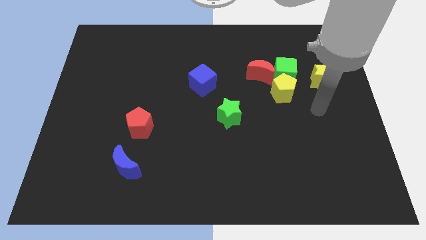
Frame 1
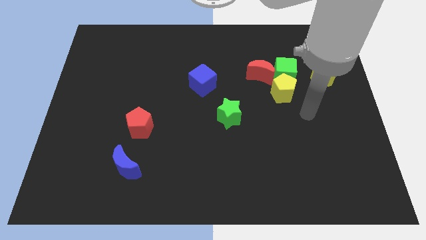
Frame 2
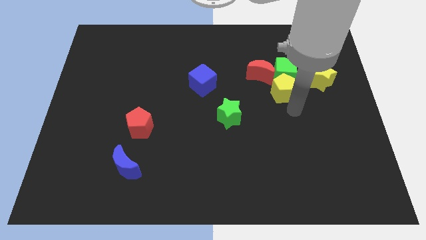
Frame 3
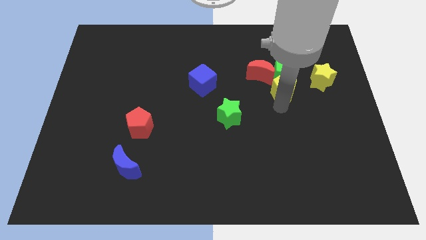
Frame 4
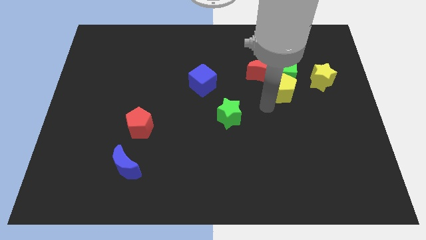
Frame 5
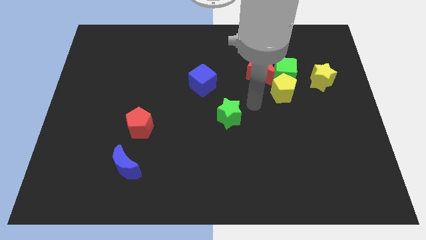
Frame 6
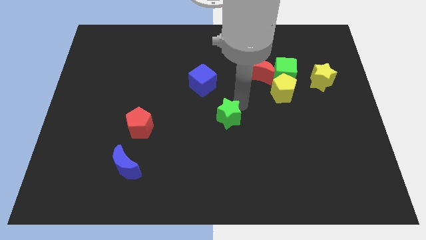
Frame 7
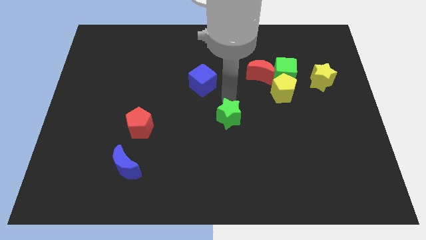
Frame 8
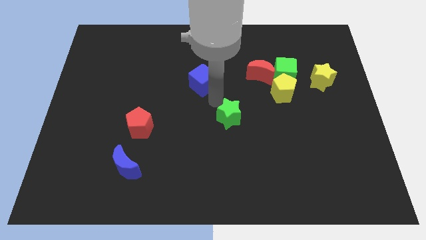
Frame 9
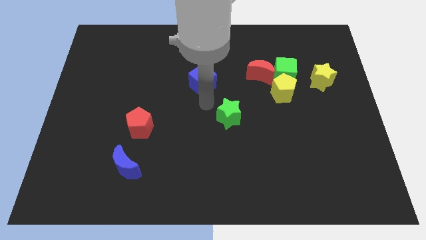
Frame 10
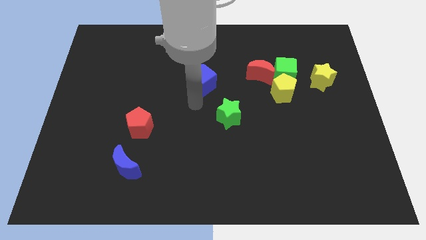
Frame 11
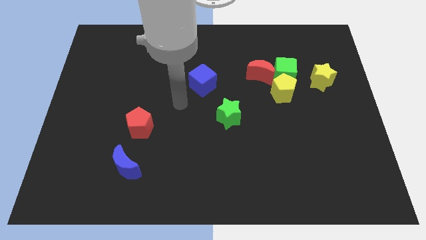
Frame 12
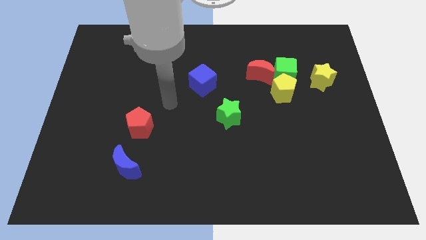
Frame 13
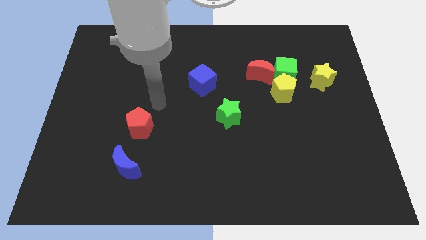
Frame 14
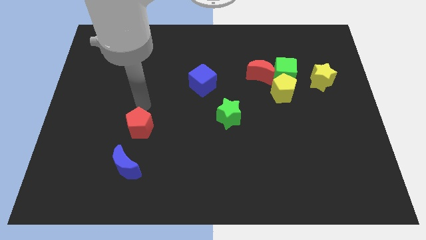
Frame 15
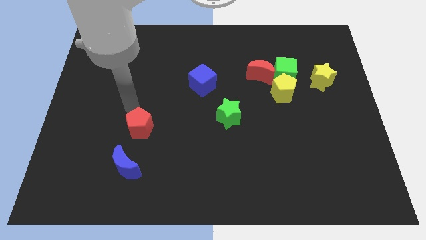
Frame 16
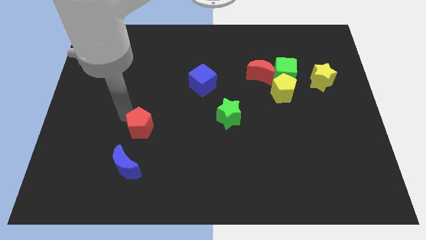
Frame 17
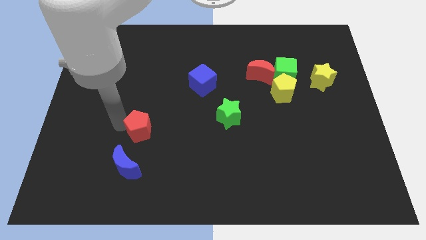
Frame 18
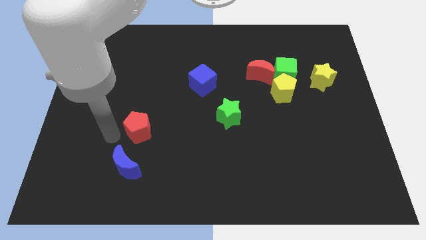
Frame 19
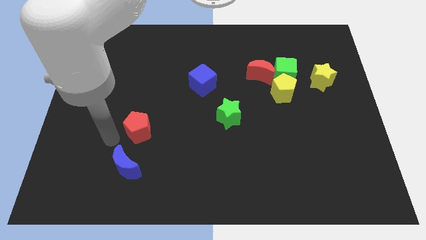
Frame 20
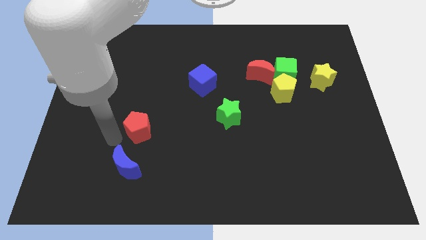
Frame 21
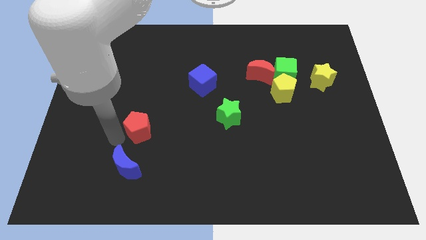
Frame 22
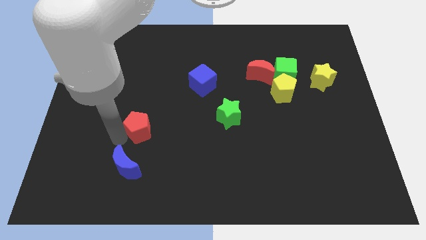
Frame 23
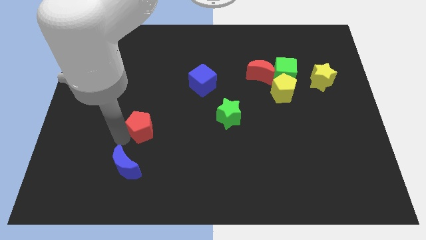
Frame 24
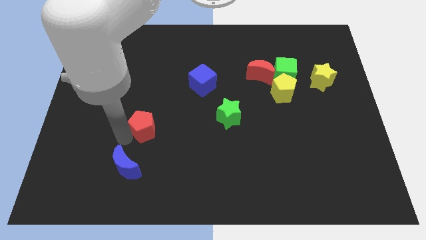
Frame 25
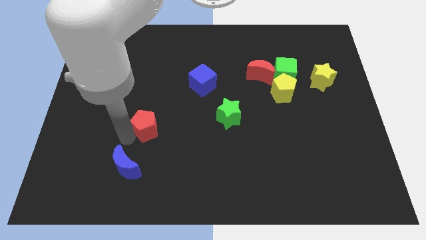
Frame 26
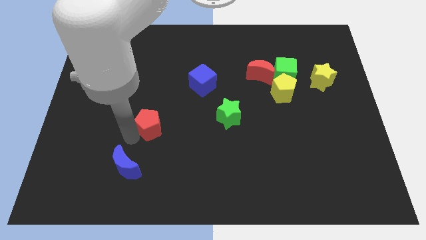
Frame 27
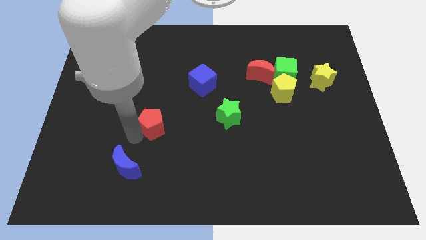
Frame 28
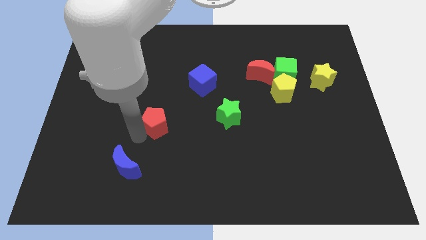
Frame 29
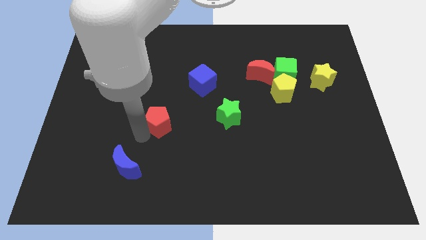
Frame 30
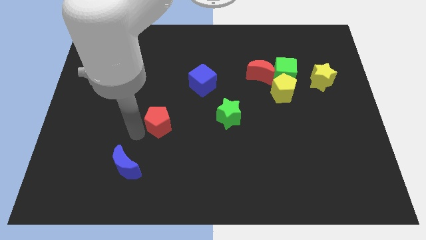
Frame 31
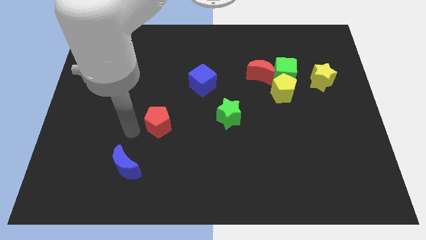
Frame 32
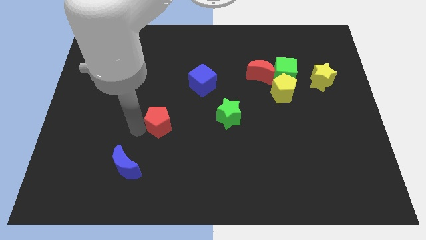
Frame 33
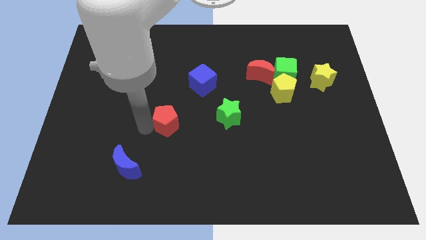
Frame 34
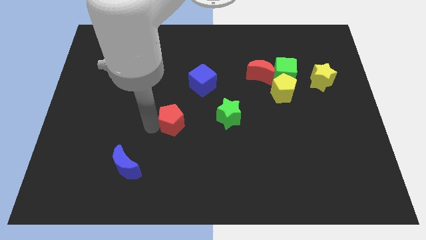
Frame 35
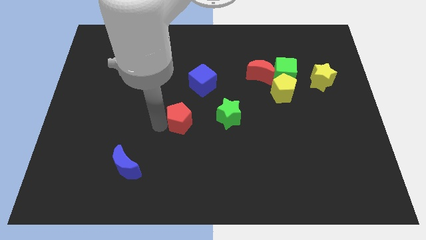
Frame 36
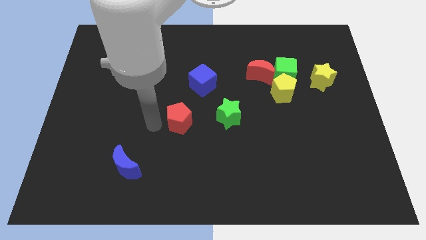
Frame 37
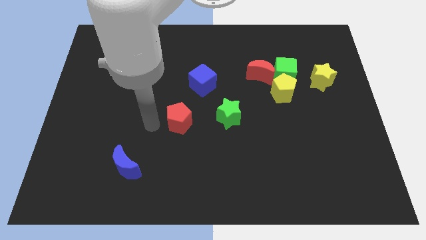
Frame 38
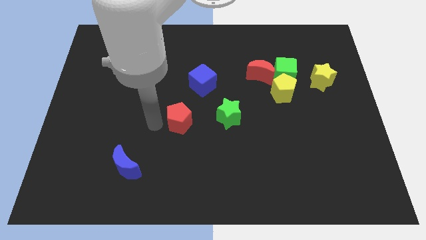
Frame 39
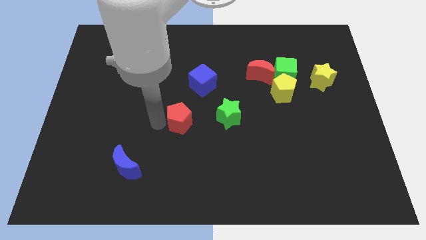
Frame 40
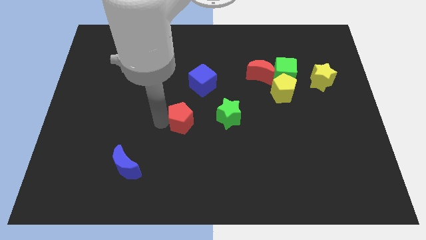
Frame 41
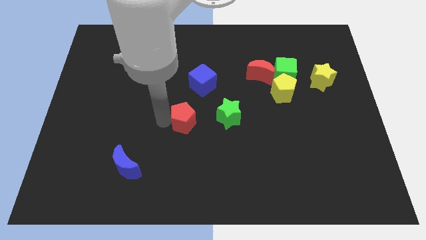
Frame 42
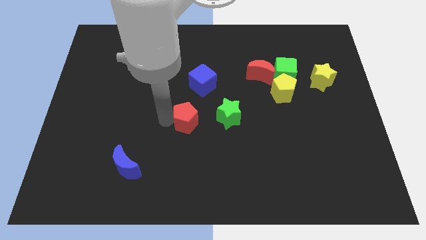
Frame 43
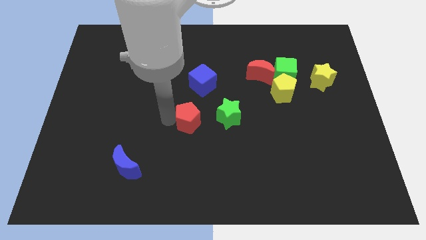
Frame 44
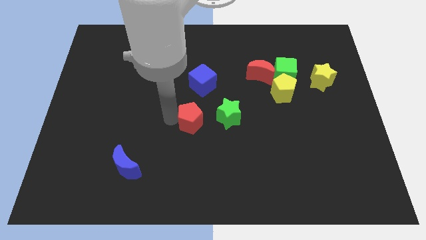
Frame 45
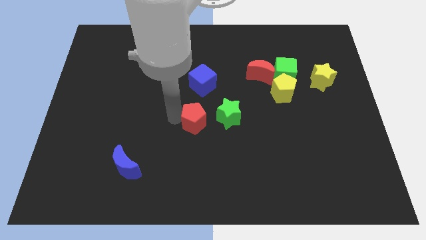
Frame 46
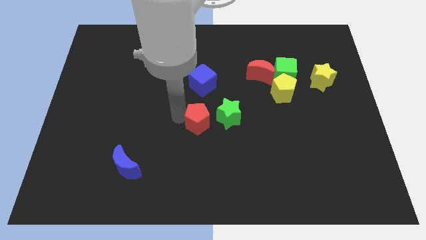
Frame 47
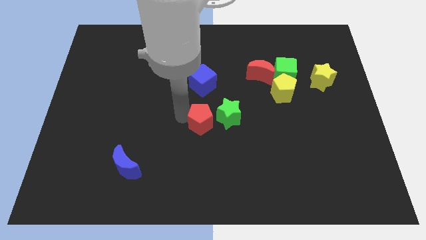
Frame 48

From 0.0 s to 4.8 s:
push the red pentagon close to the green star

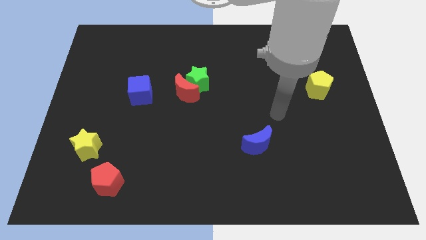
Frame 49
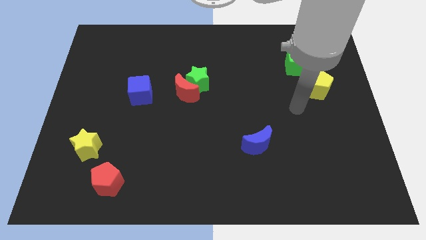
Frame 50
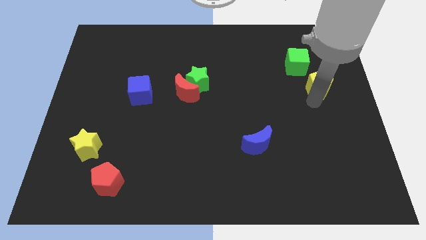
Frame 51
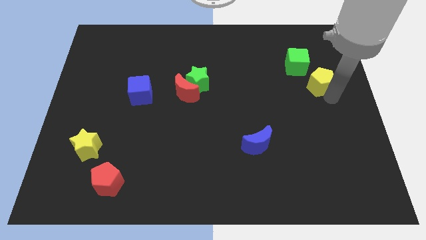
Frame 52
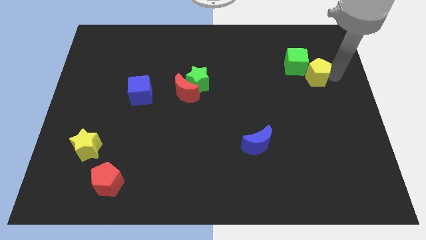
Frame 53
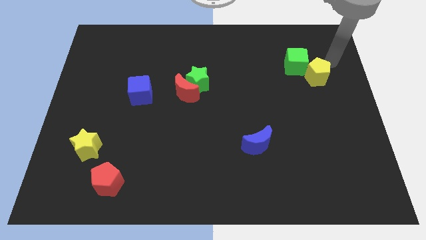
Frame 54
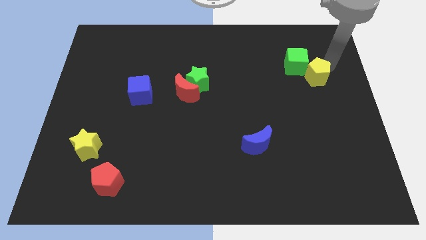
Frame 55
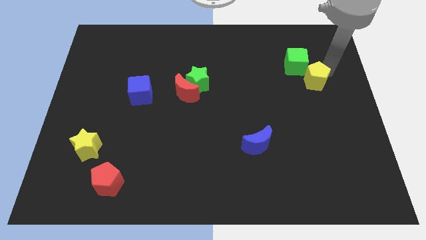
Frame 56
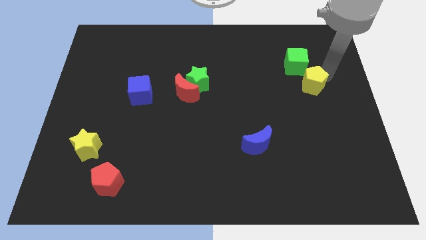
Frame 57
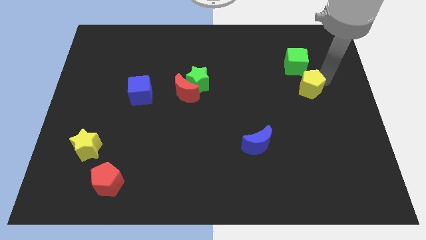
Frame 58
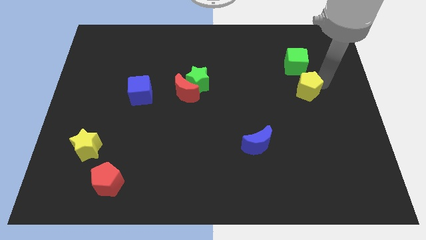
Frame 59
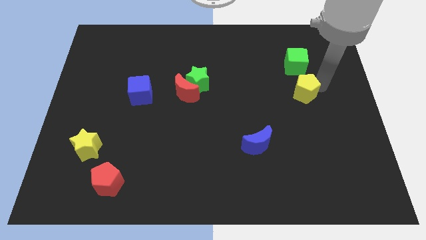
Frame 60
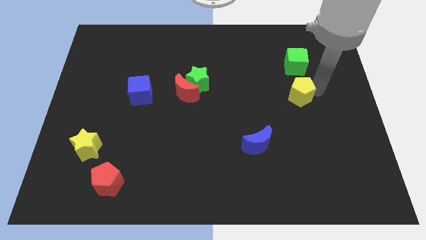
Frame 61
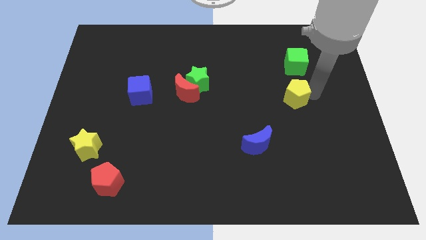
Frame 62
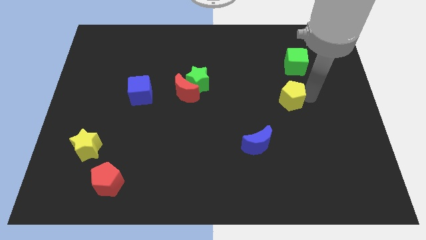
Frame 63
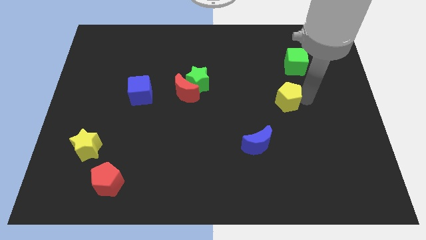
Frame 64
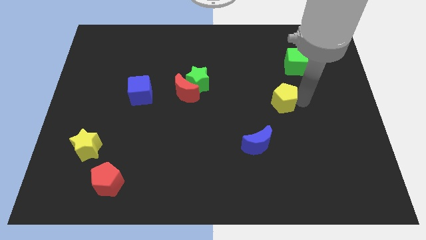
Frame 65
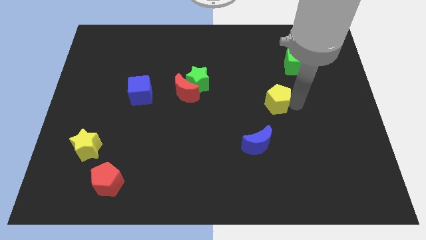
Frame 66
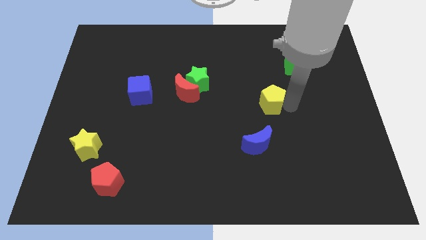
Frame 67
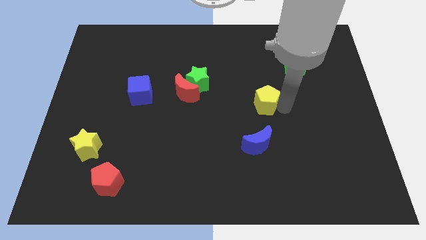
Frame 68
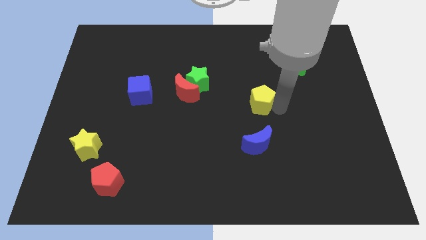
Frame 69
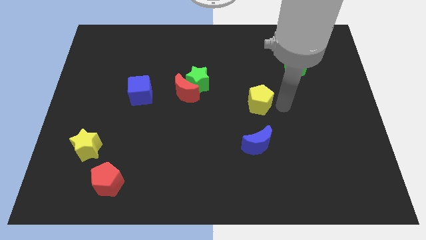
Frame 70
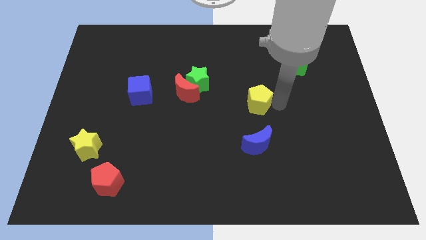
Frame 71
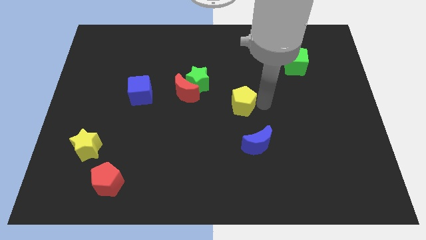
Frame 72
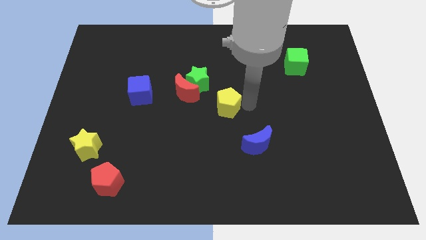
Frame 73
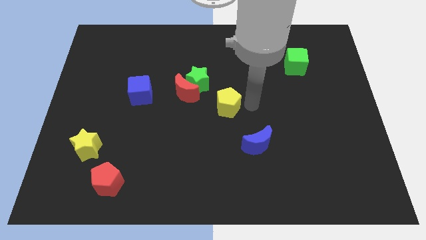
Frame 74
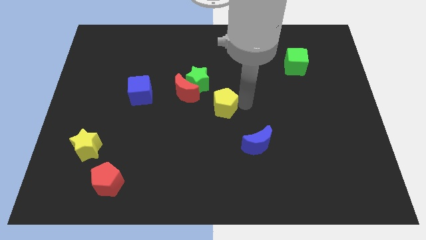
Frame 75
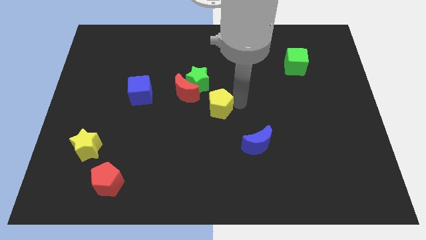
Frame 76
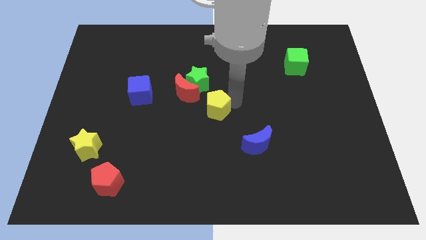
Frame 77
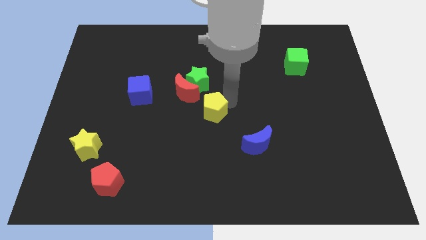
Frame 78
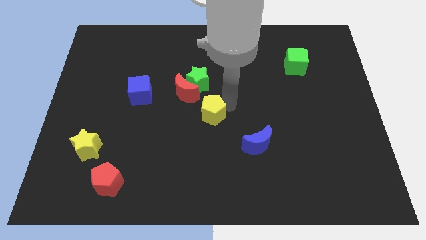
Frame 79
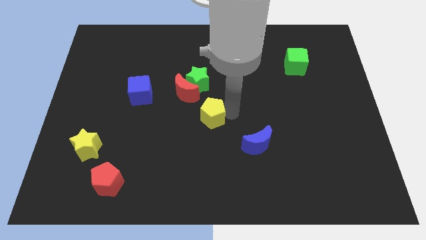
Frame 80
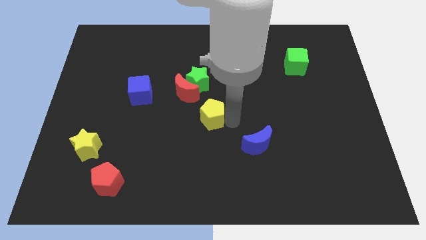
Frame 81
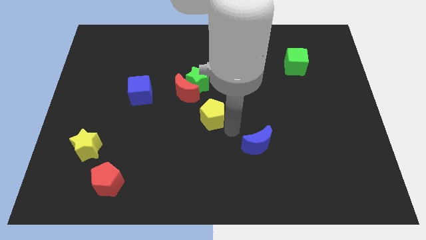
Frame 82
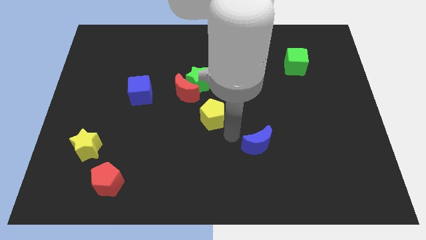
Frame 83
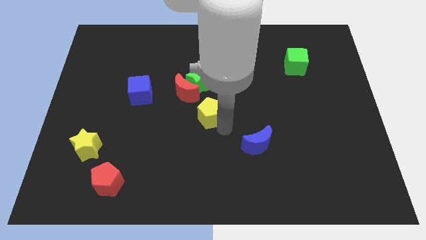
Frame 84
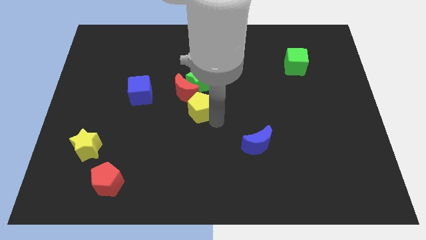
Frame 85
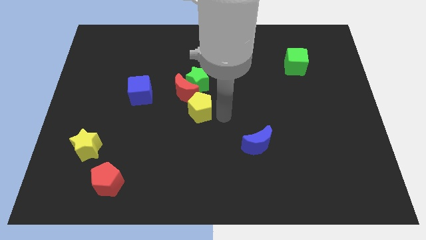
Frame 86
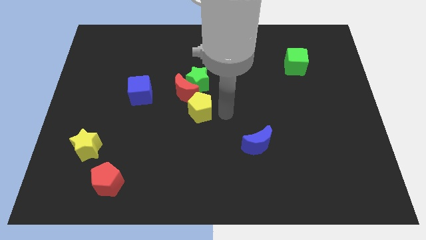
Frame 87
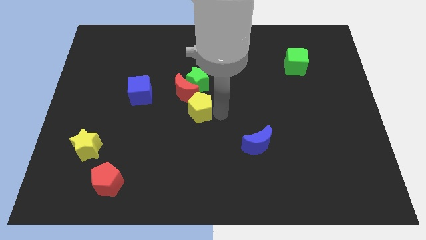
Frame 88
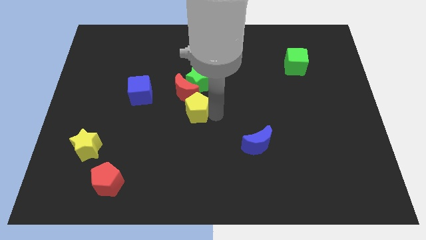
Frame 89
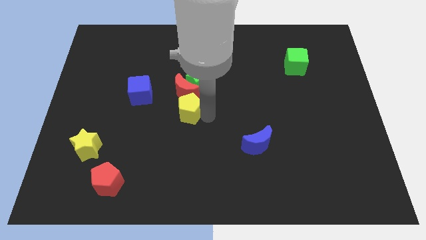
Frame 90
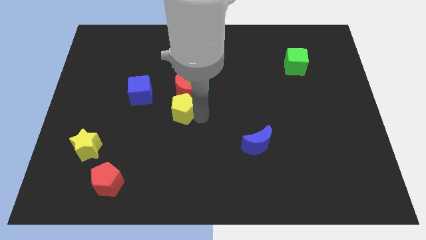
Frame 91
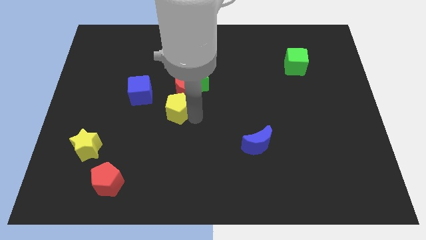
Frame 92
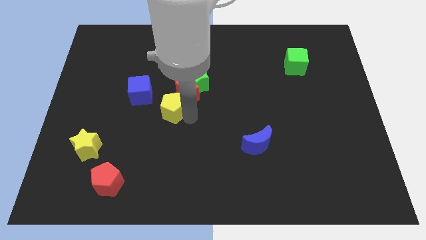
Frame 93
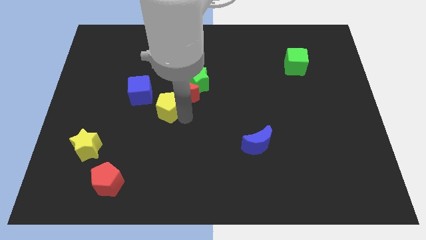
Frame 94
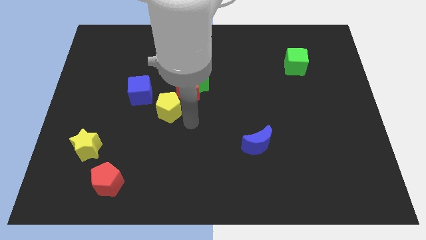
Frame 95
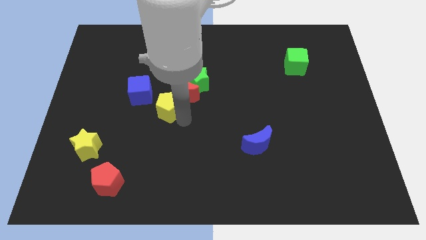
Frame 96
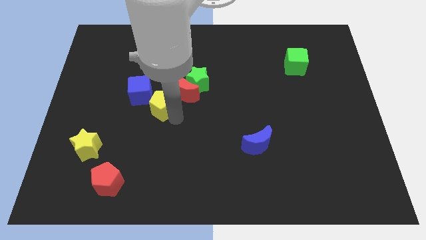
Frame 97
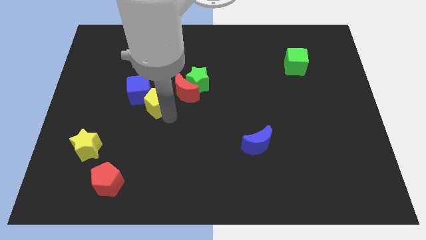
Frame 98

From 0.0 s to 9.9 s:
put the yellow pentagon towards the blue cube
